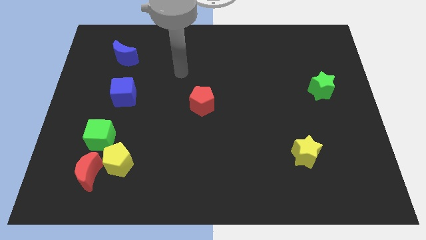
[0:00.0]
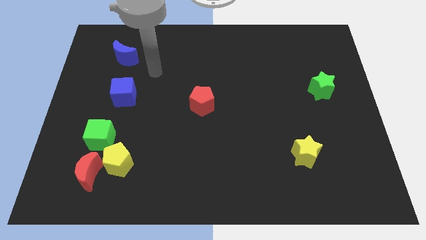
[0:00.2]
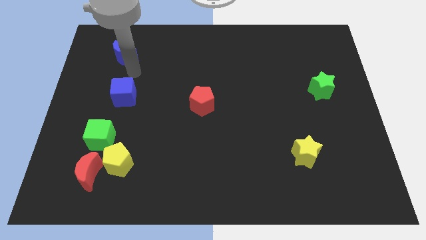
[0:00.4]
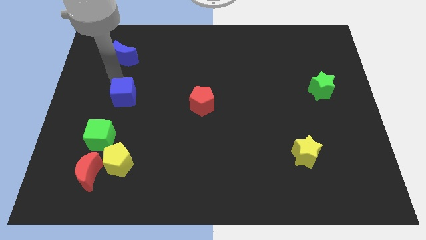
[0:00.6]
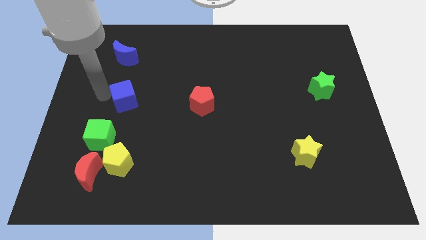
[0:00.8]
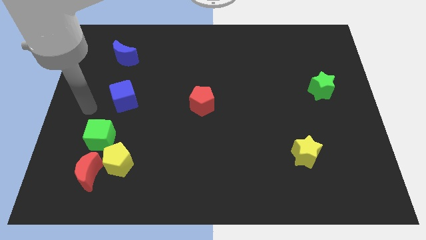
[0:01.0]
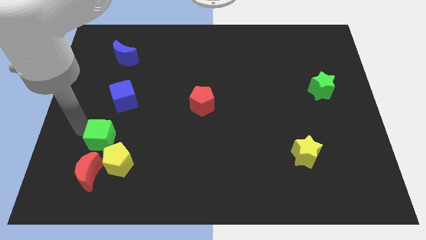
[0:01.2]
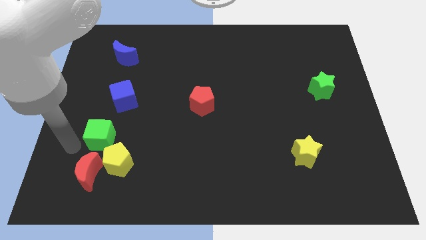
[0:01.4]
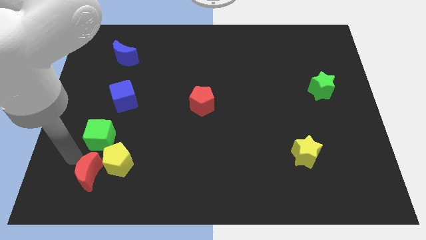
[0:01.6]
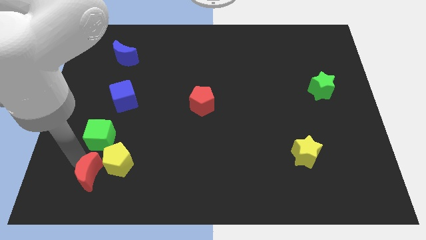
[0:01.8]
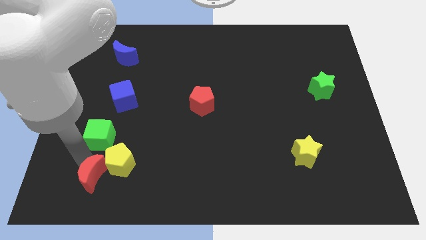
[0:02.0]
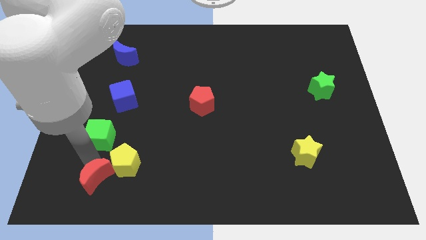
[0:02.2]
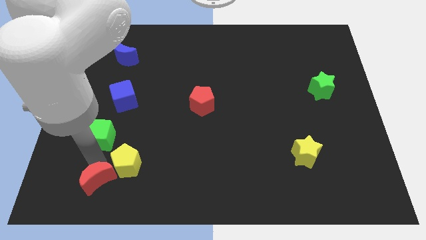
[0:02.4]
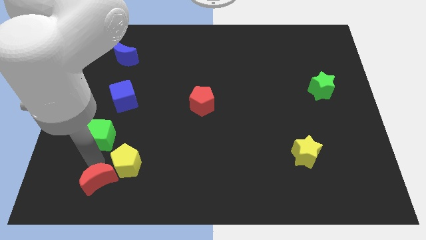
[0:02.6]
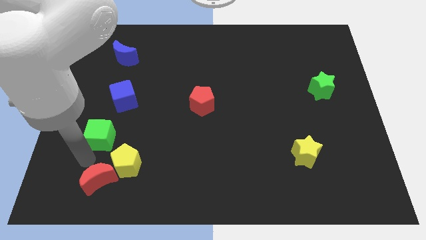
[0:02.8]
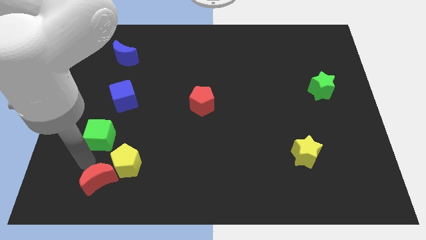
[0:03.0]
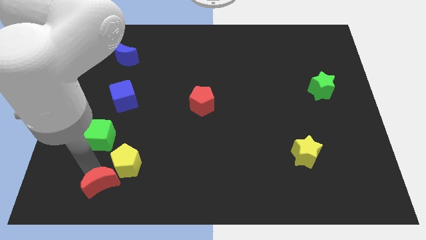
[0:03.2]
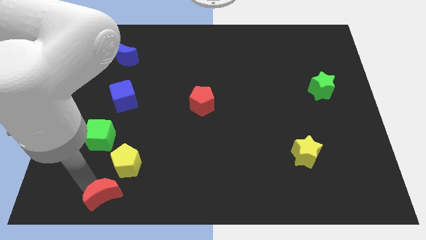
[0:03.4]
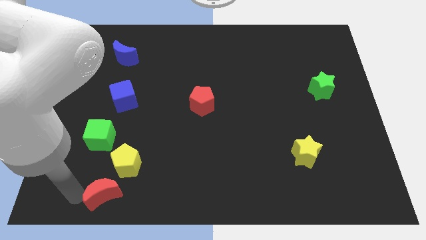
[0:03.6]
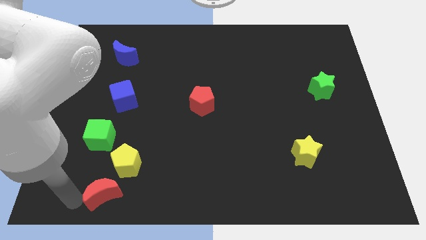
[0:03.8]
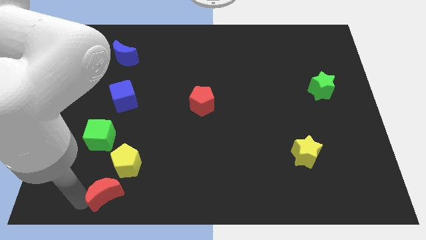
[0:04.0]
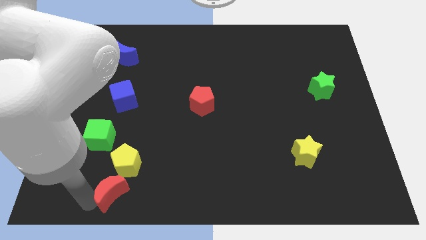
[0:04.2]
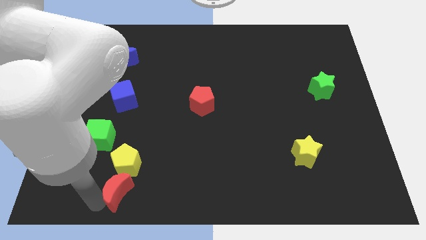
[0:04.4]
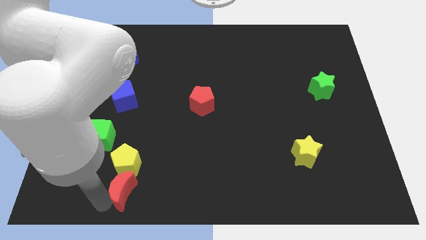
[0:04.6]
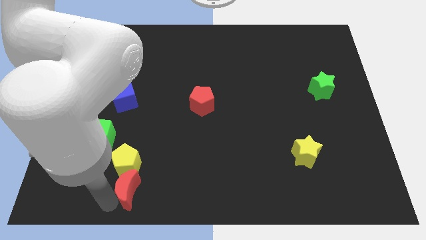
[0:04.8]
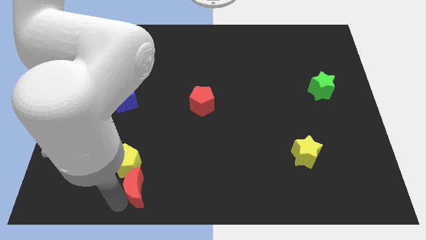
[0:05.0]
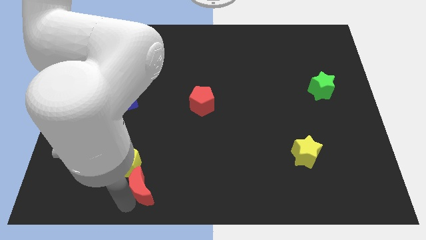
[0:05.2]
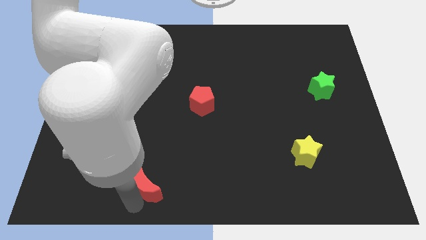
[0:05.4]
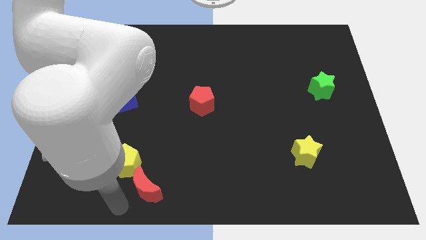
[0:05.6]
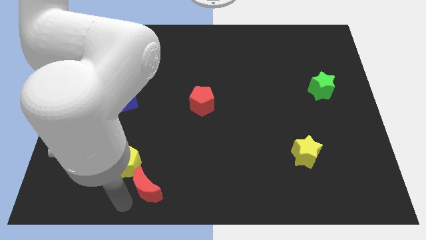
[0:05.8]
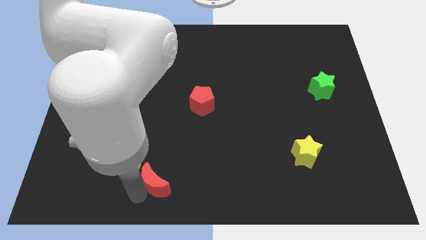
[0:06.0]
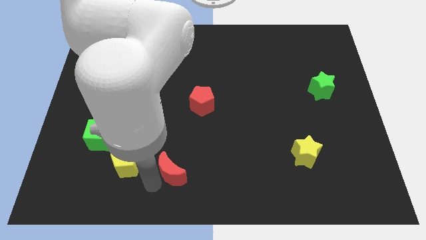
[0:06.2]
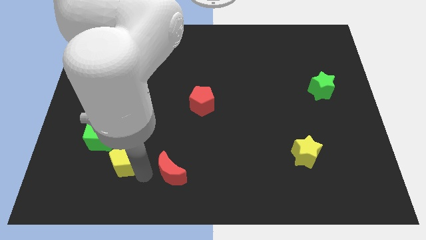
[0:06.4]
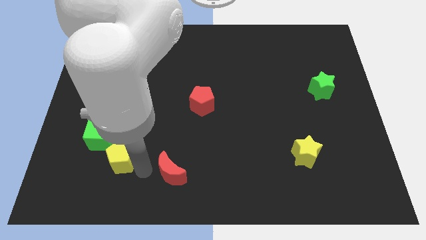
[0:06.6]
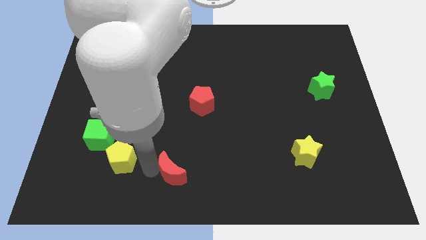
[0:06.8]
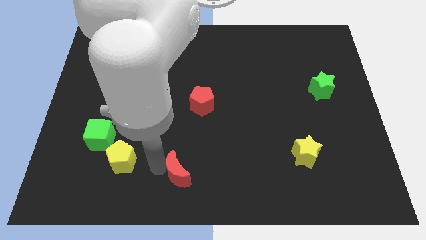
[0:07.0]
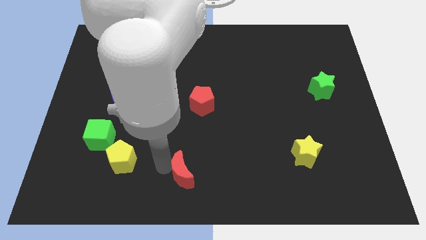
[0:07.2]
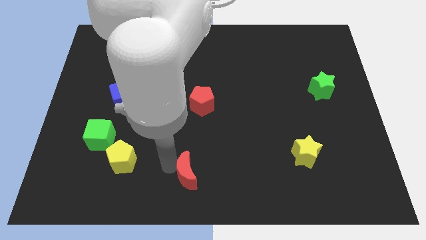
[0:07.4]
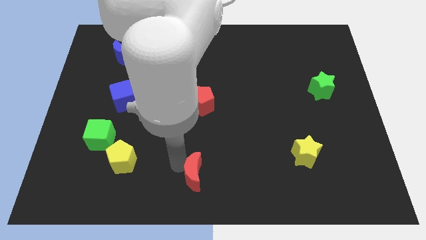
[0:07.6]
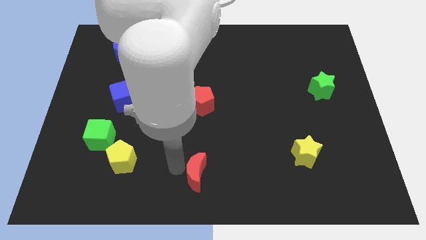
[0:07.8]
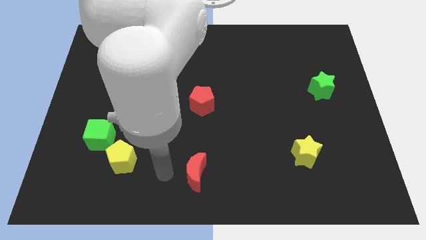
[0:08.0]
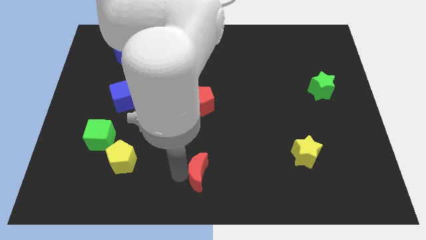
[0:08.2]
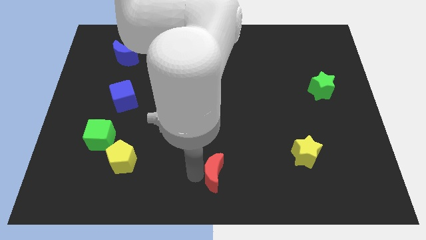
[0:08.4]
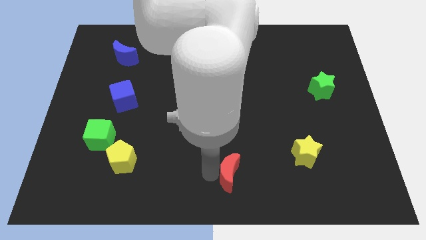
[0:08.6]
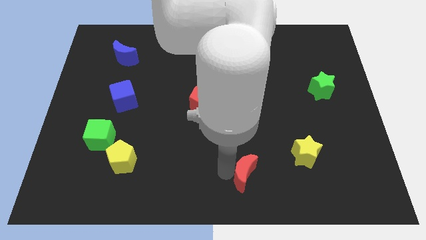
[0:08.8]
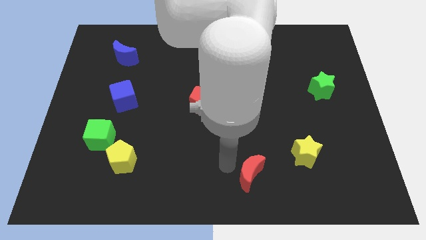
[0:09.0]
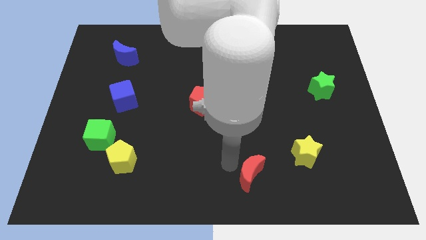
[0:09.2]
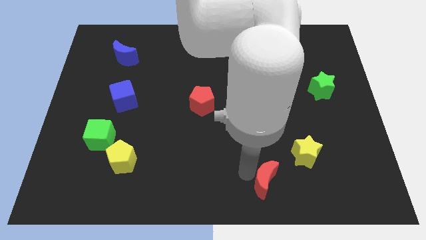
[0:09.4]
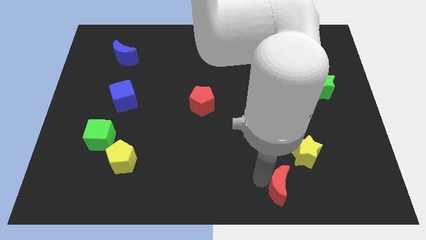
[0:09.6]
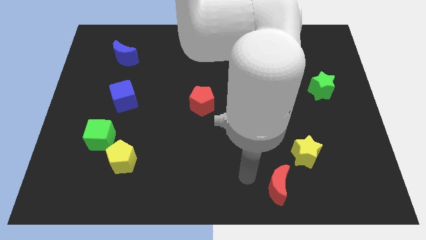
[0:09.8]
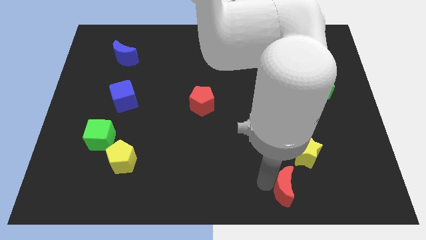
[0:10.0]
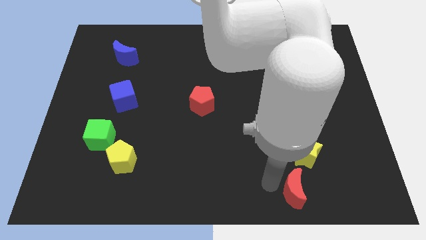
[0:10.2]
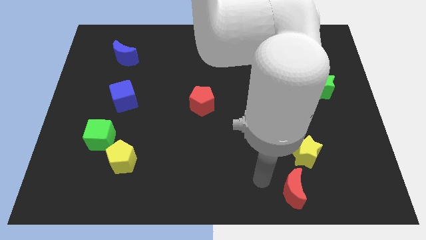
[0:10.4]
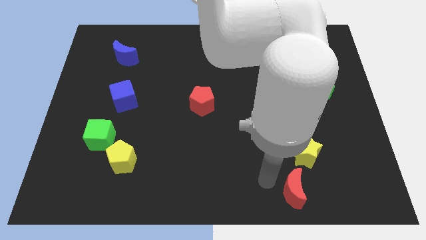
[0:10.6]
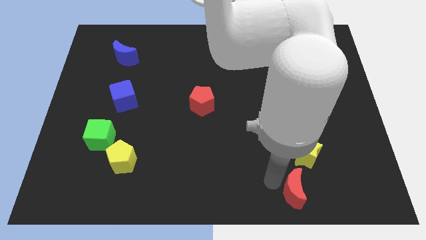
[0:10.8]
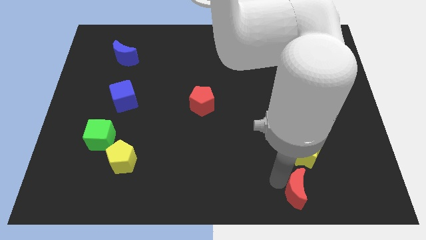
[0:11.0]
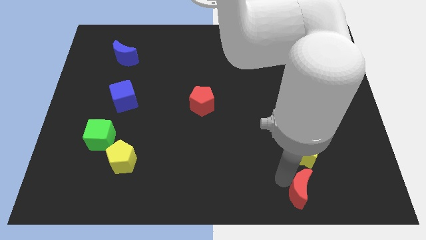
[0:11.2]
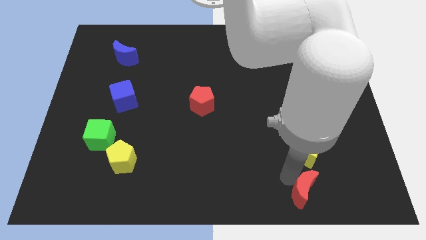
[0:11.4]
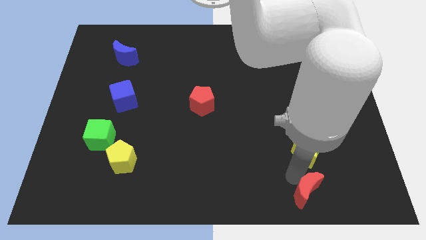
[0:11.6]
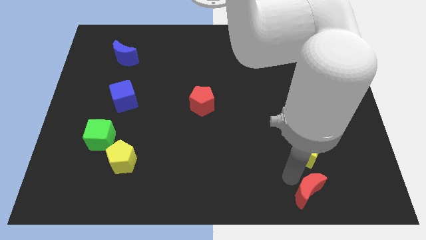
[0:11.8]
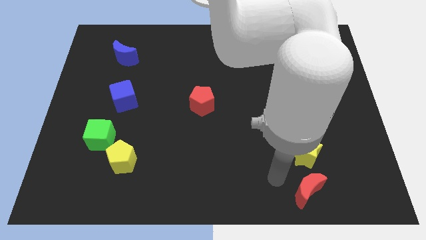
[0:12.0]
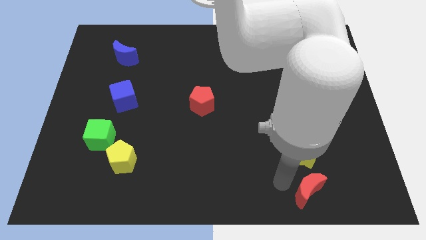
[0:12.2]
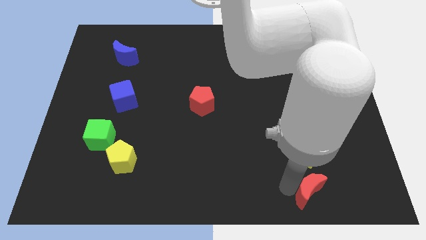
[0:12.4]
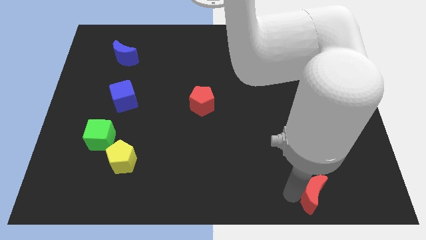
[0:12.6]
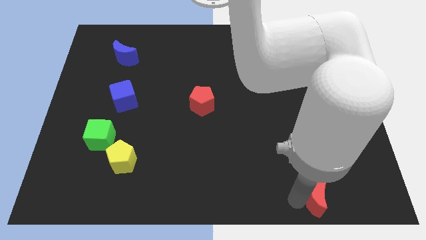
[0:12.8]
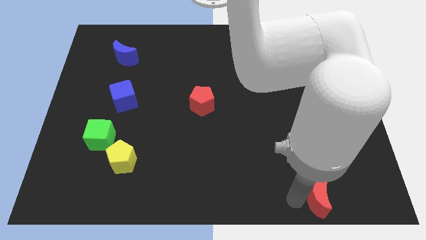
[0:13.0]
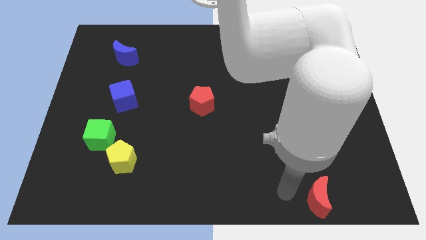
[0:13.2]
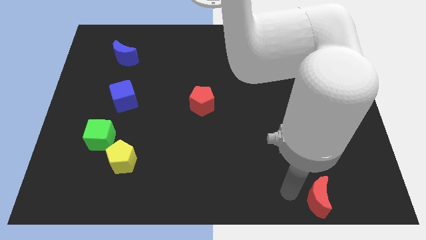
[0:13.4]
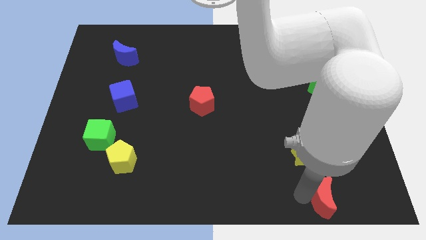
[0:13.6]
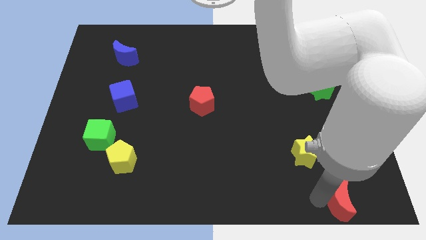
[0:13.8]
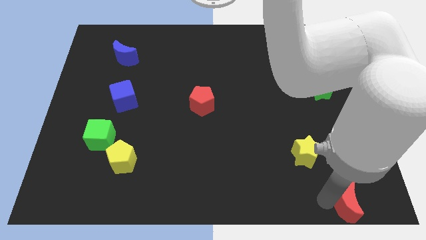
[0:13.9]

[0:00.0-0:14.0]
slide the red moon to the bottom right corner
